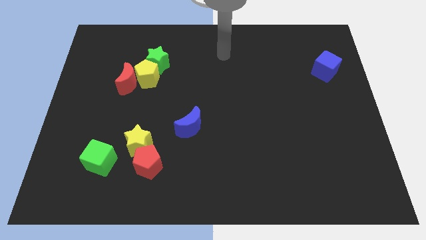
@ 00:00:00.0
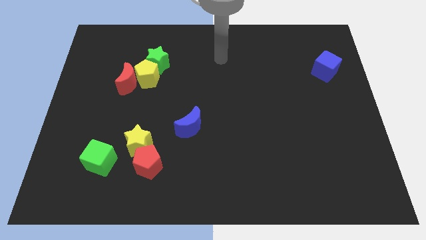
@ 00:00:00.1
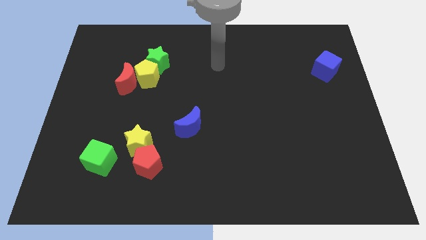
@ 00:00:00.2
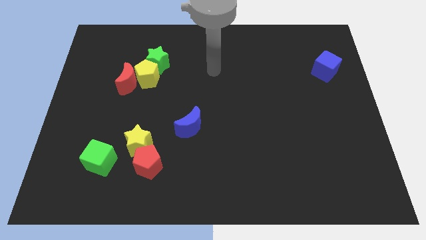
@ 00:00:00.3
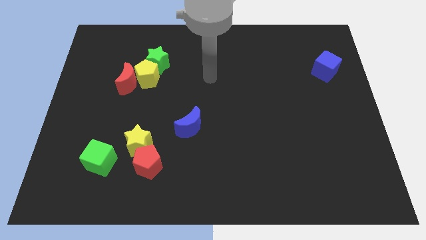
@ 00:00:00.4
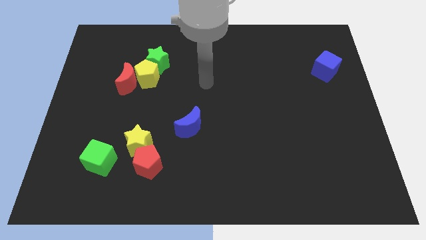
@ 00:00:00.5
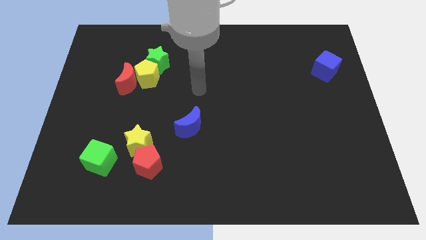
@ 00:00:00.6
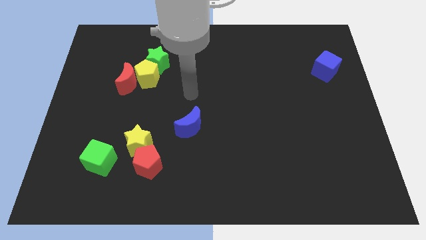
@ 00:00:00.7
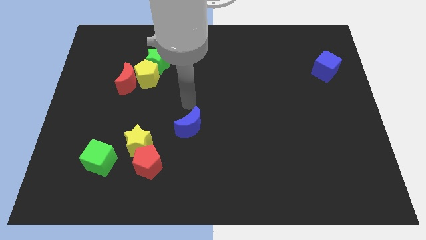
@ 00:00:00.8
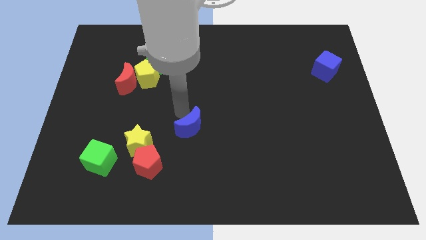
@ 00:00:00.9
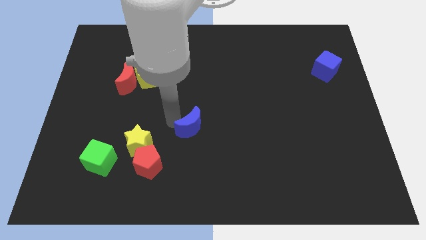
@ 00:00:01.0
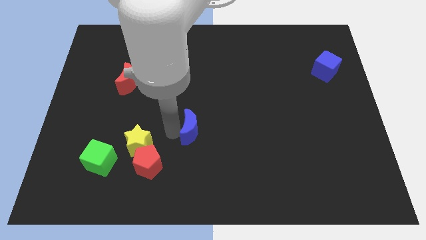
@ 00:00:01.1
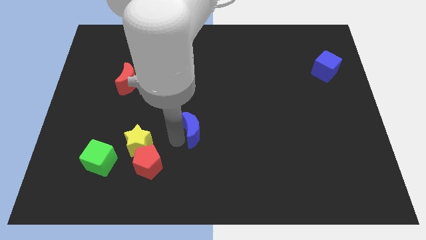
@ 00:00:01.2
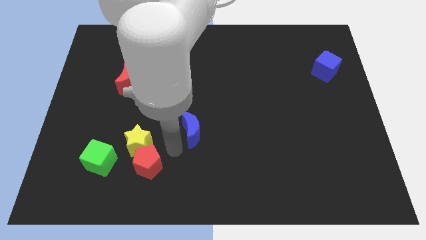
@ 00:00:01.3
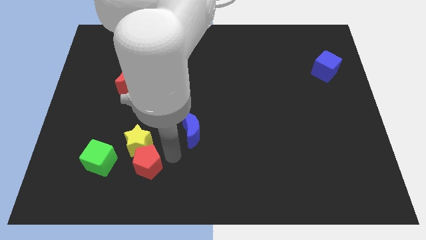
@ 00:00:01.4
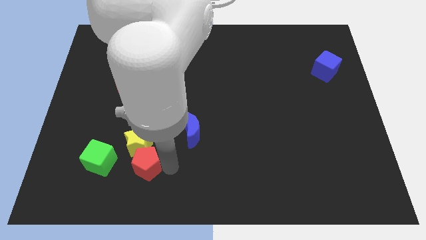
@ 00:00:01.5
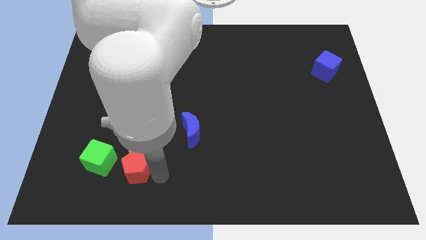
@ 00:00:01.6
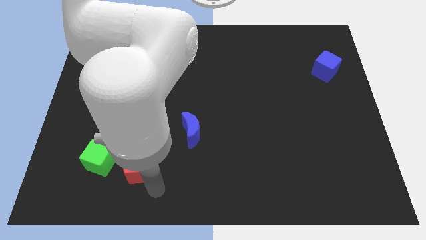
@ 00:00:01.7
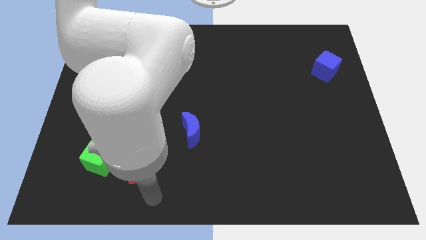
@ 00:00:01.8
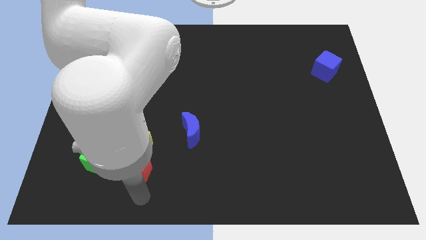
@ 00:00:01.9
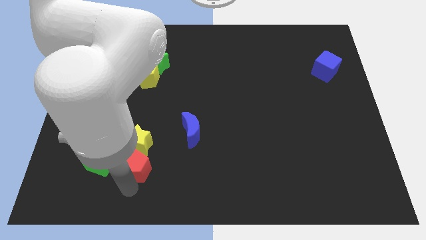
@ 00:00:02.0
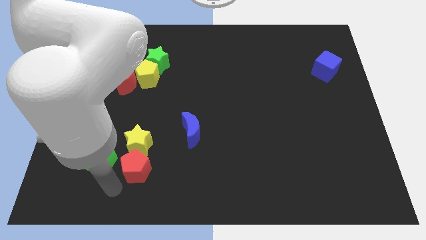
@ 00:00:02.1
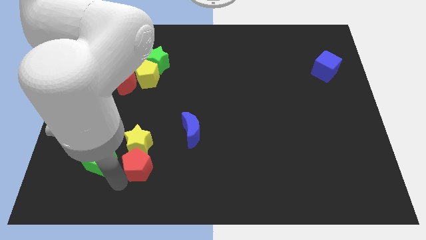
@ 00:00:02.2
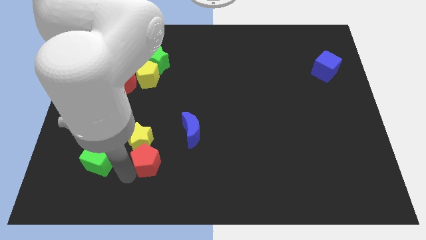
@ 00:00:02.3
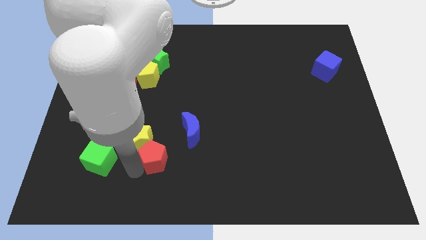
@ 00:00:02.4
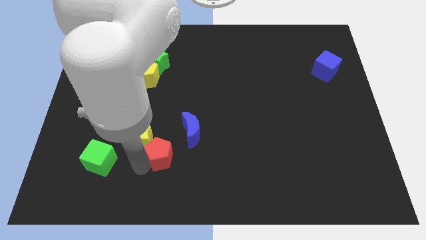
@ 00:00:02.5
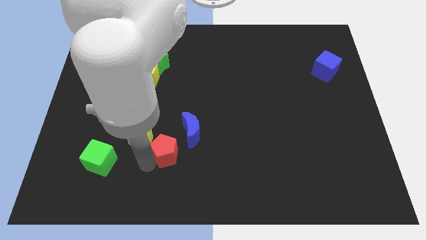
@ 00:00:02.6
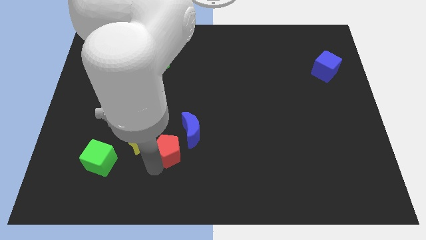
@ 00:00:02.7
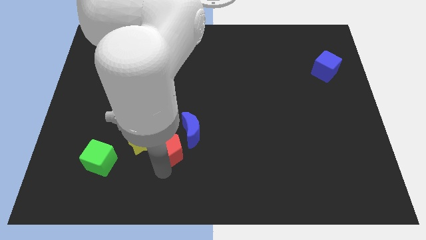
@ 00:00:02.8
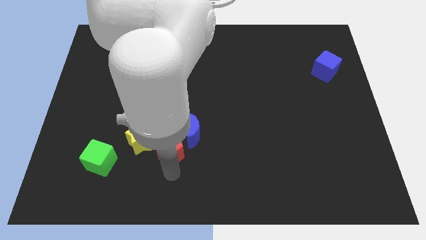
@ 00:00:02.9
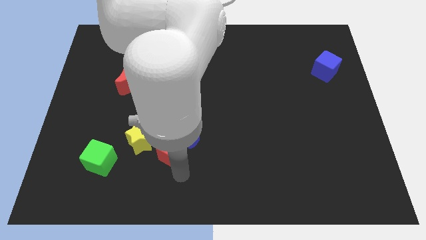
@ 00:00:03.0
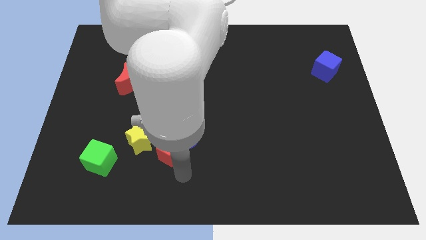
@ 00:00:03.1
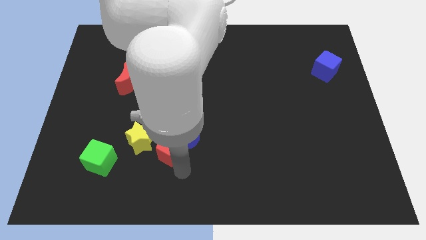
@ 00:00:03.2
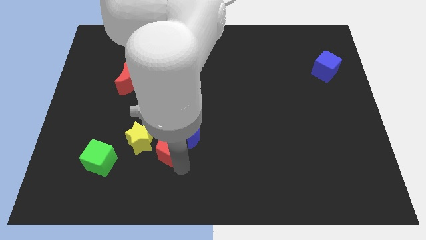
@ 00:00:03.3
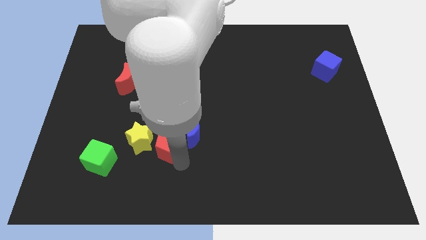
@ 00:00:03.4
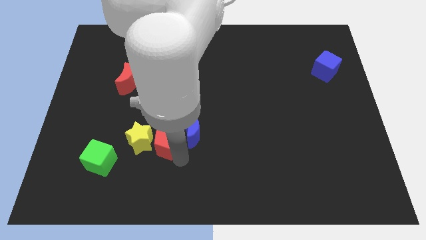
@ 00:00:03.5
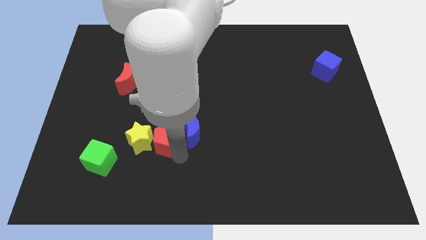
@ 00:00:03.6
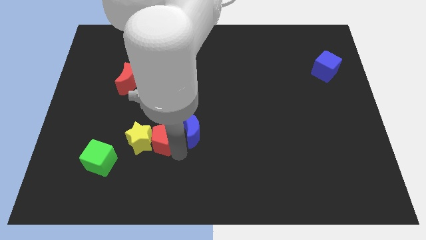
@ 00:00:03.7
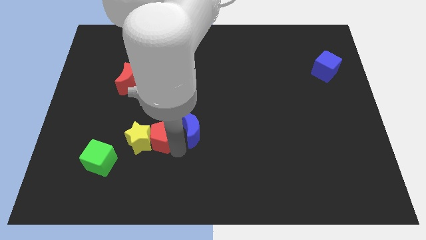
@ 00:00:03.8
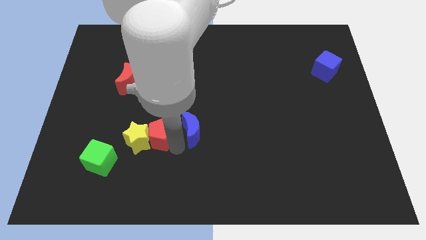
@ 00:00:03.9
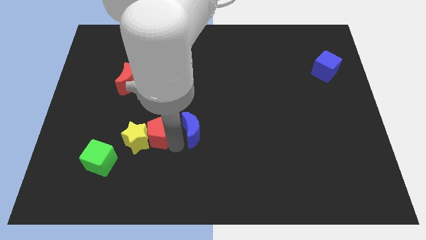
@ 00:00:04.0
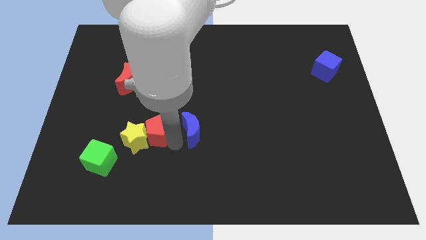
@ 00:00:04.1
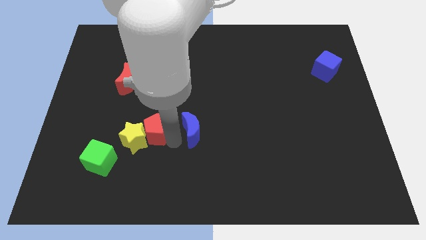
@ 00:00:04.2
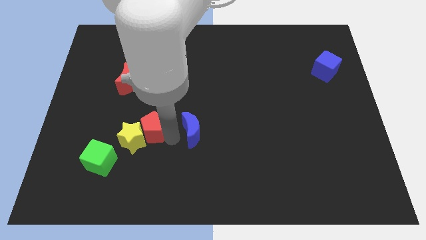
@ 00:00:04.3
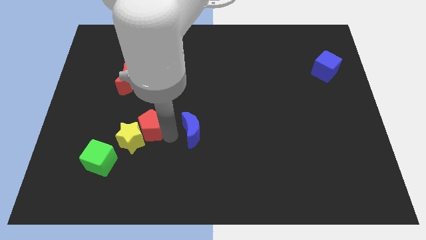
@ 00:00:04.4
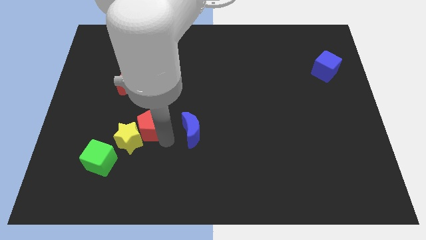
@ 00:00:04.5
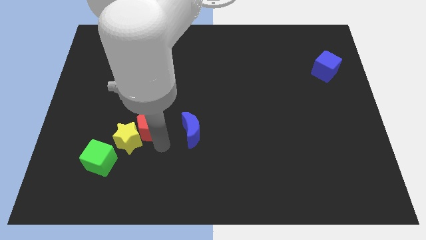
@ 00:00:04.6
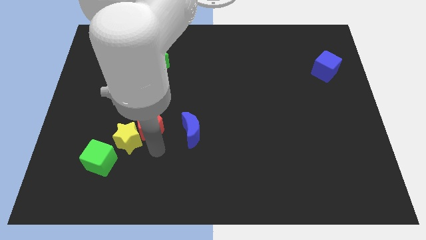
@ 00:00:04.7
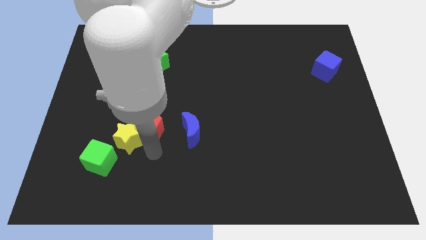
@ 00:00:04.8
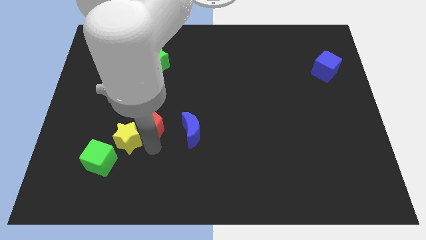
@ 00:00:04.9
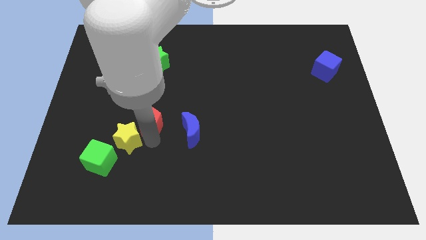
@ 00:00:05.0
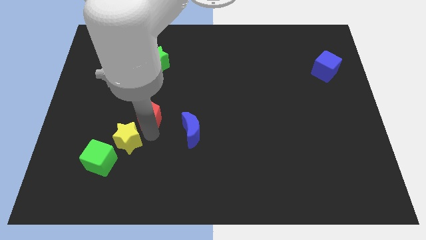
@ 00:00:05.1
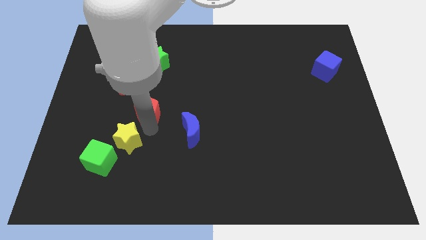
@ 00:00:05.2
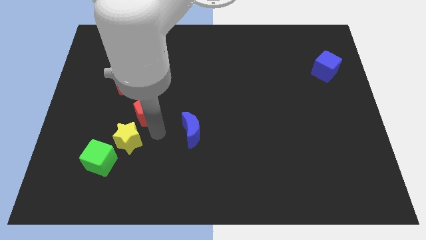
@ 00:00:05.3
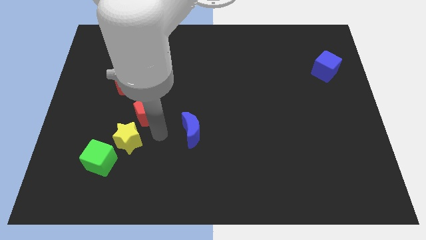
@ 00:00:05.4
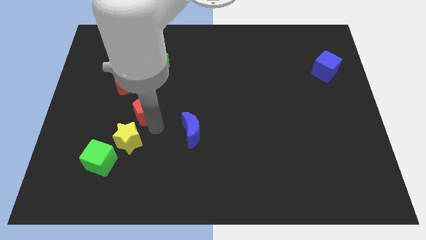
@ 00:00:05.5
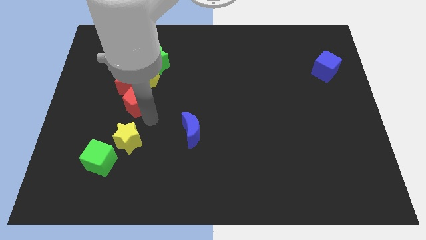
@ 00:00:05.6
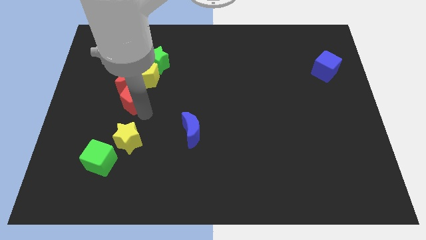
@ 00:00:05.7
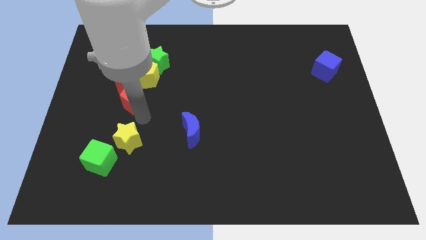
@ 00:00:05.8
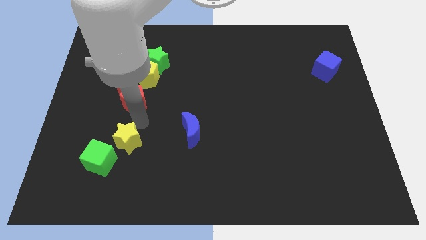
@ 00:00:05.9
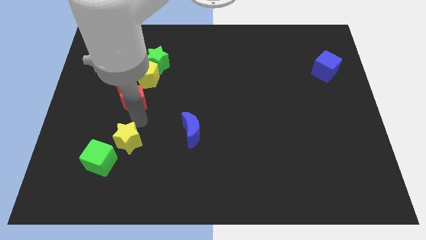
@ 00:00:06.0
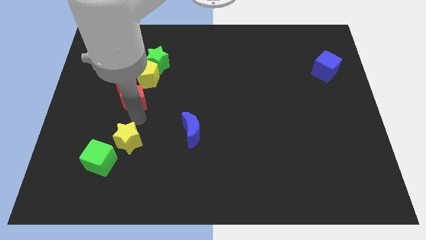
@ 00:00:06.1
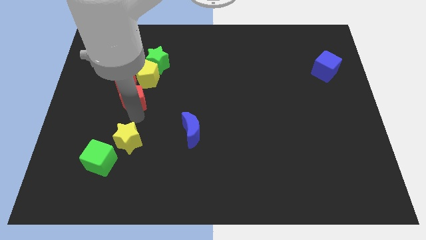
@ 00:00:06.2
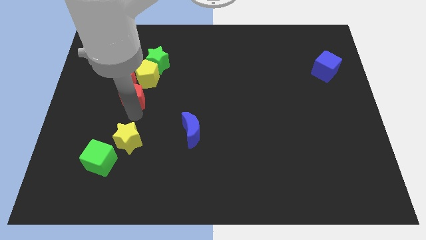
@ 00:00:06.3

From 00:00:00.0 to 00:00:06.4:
push the red pentagon close to the red moon

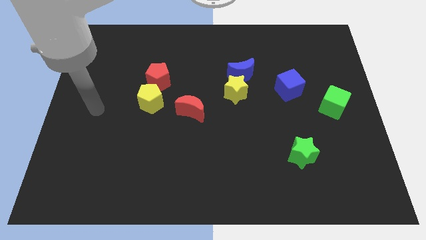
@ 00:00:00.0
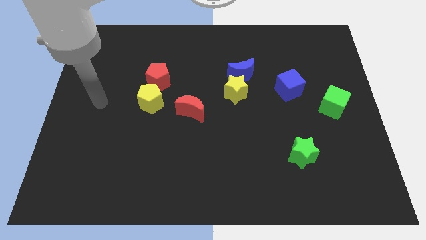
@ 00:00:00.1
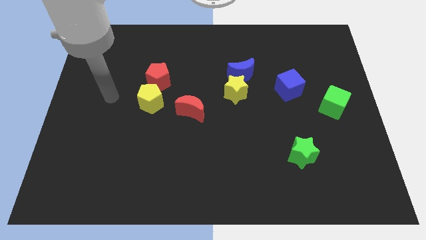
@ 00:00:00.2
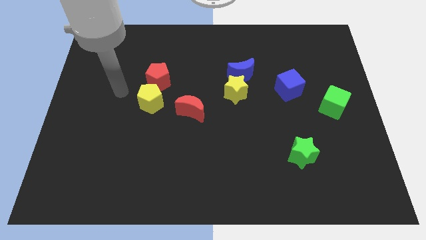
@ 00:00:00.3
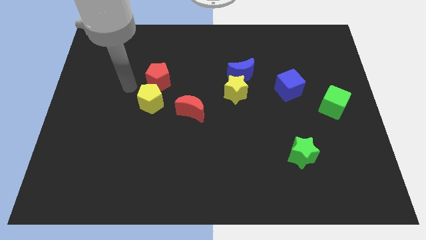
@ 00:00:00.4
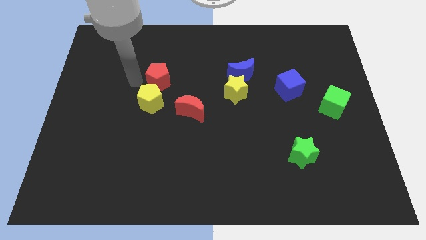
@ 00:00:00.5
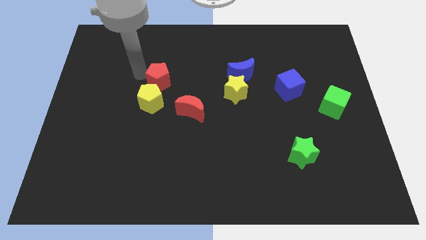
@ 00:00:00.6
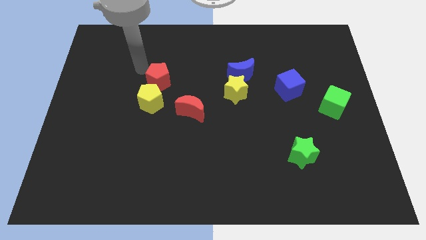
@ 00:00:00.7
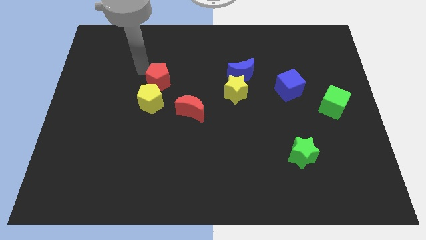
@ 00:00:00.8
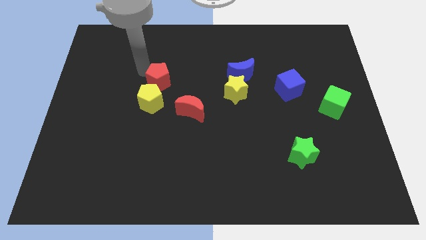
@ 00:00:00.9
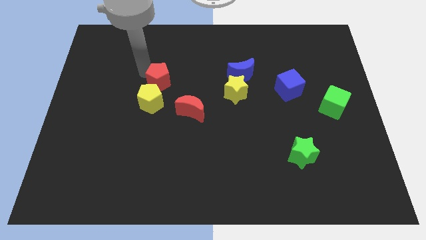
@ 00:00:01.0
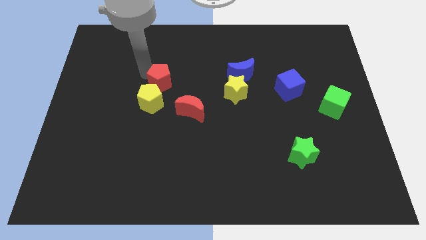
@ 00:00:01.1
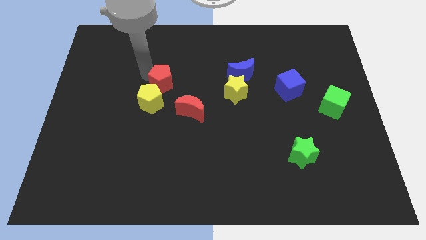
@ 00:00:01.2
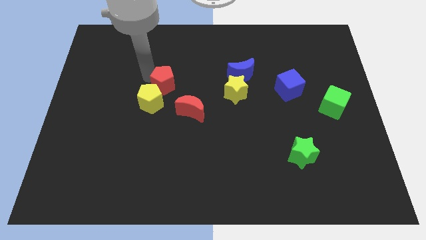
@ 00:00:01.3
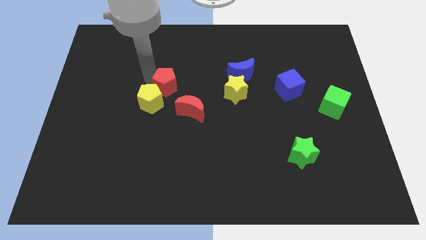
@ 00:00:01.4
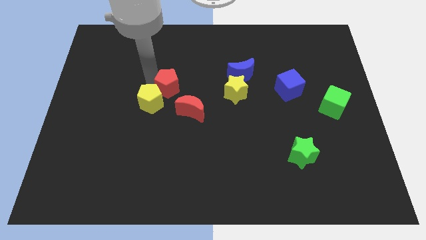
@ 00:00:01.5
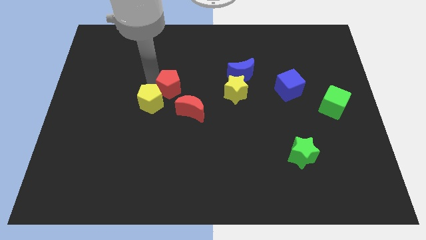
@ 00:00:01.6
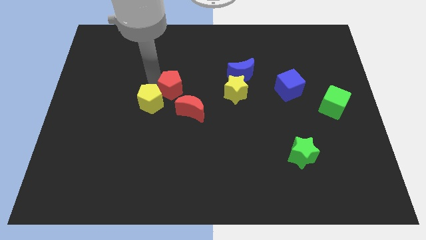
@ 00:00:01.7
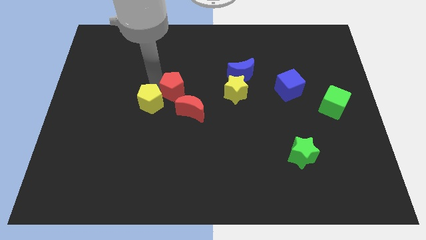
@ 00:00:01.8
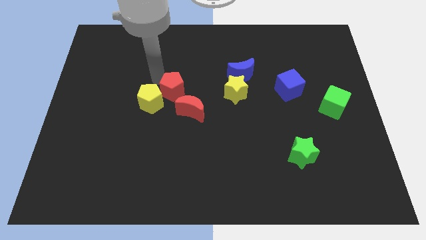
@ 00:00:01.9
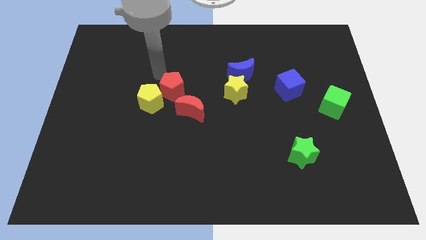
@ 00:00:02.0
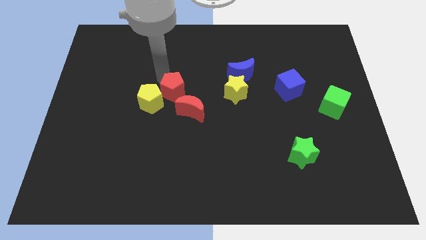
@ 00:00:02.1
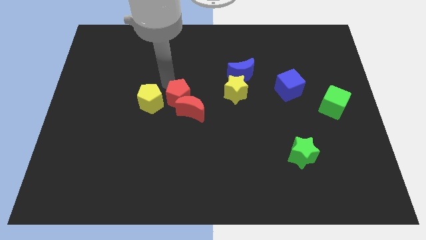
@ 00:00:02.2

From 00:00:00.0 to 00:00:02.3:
move the red pentagon close to the red moon
